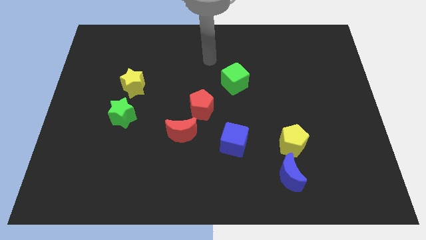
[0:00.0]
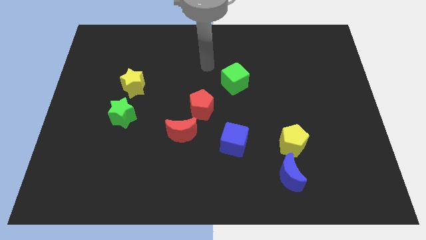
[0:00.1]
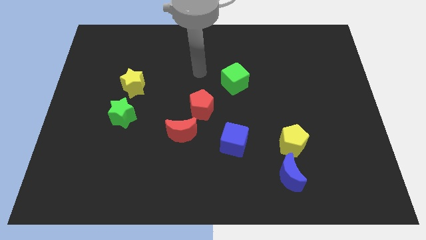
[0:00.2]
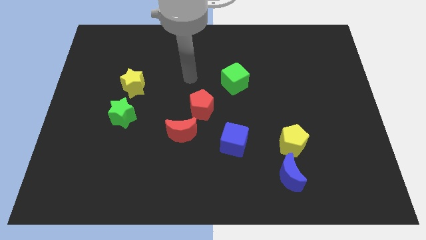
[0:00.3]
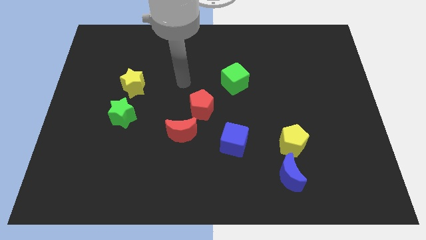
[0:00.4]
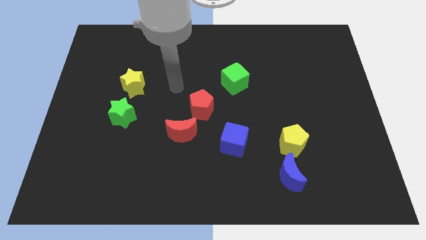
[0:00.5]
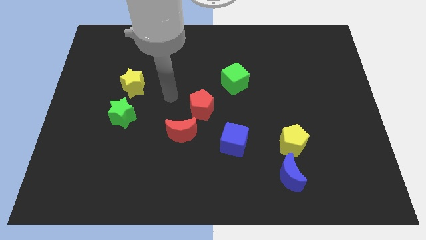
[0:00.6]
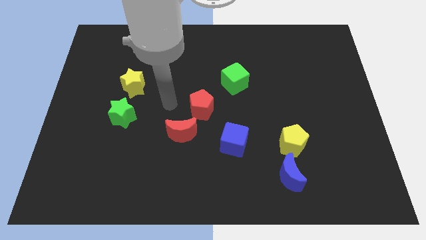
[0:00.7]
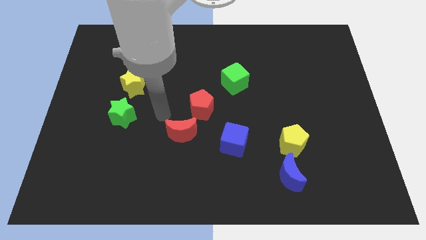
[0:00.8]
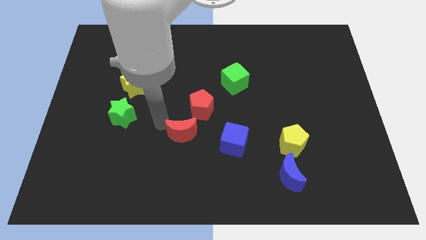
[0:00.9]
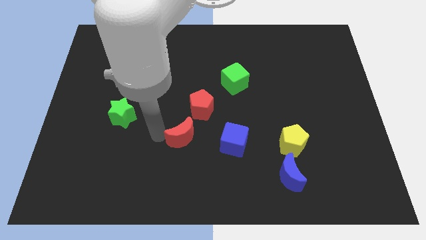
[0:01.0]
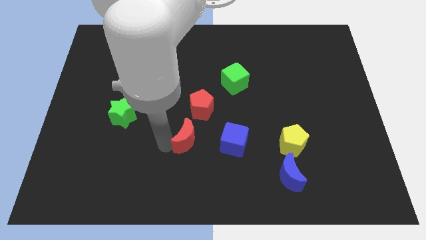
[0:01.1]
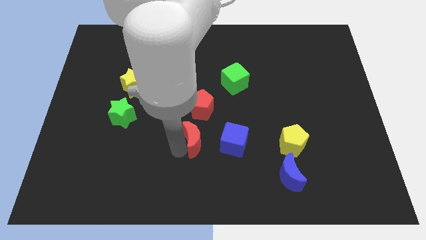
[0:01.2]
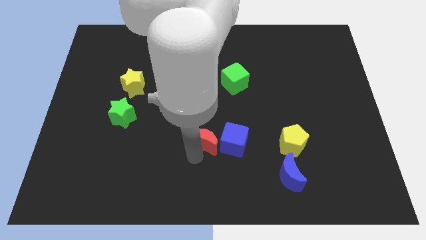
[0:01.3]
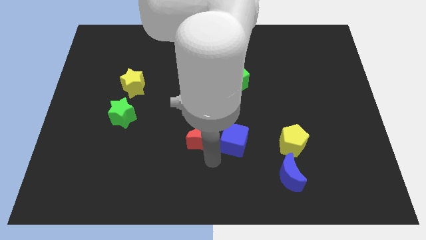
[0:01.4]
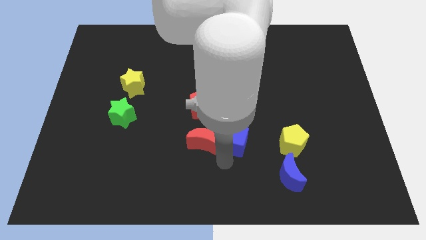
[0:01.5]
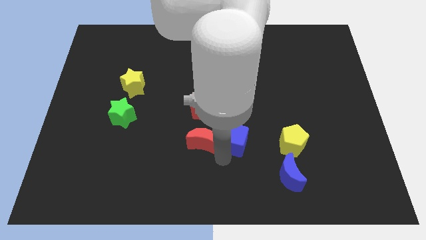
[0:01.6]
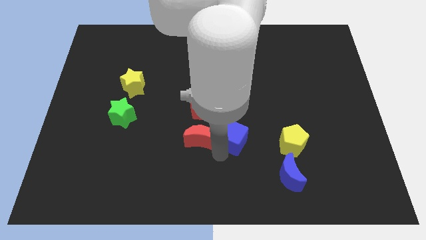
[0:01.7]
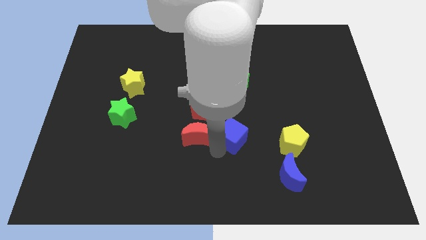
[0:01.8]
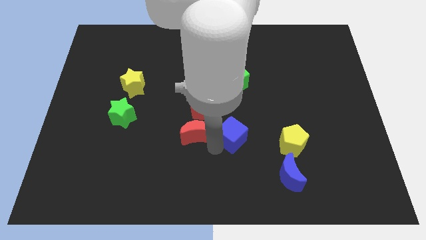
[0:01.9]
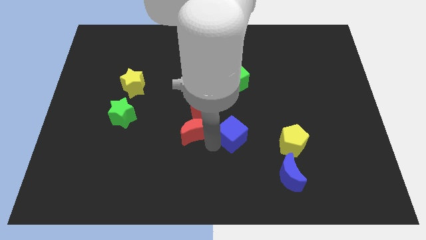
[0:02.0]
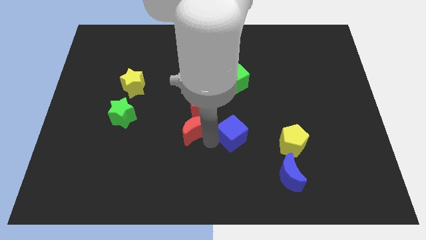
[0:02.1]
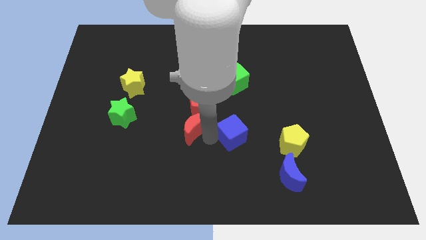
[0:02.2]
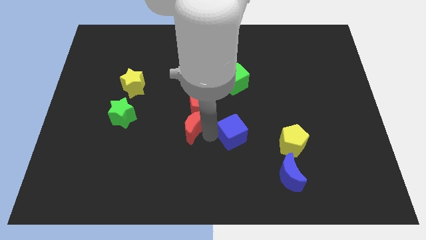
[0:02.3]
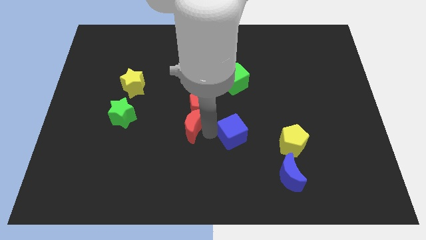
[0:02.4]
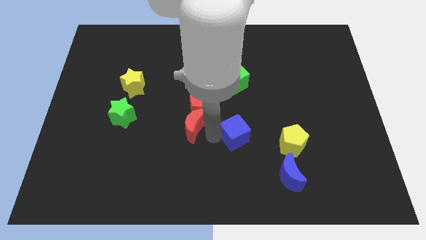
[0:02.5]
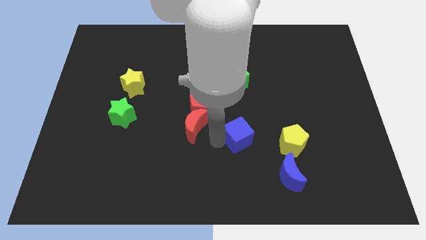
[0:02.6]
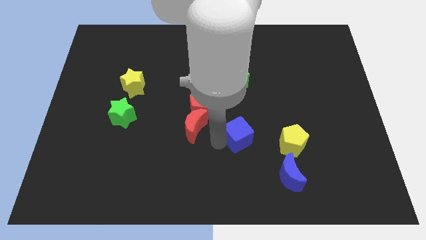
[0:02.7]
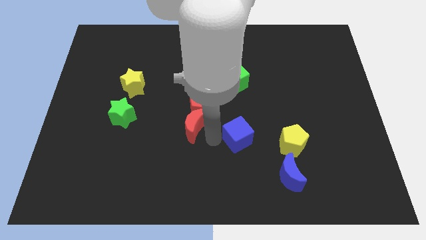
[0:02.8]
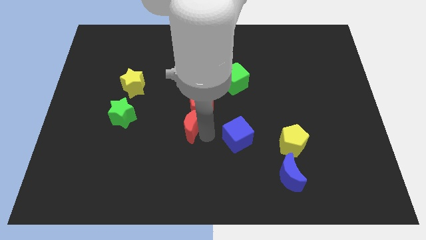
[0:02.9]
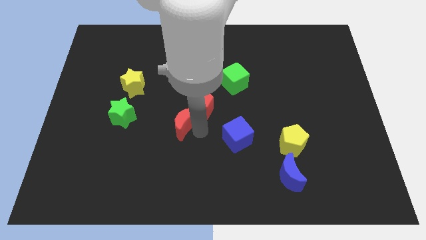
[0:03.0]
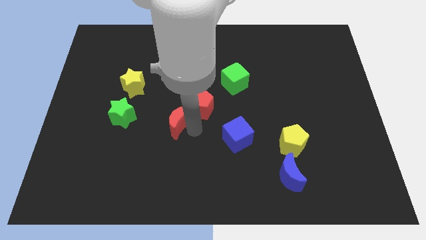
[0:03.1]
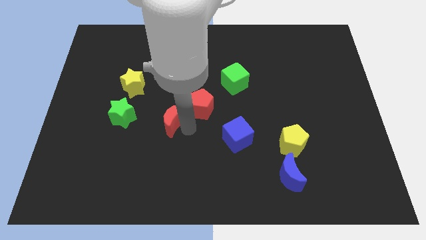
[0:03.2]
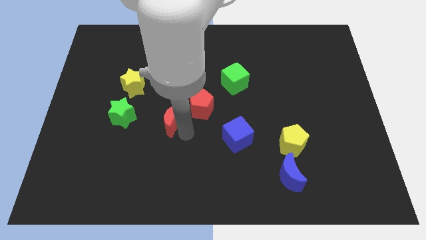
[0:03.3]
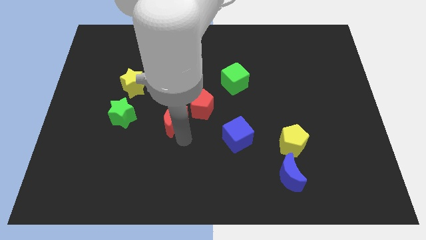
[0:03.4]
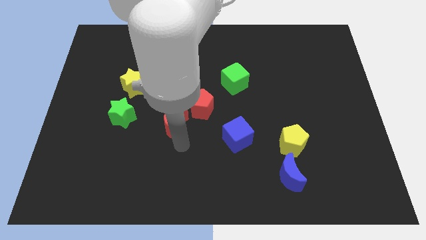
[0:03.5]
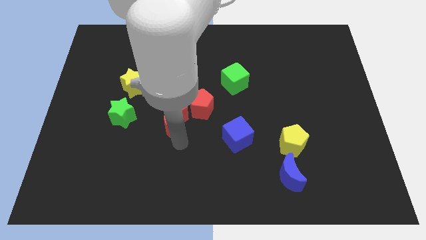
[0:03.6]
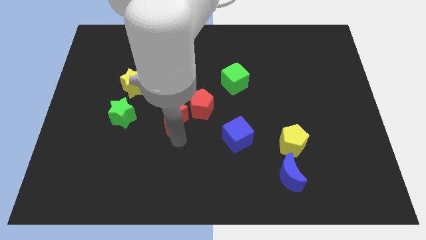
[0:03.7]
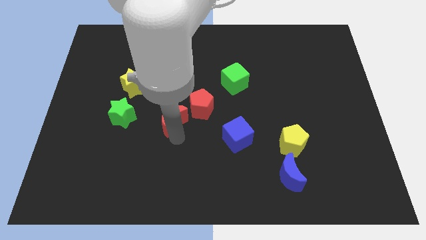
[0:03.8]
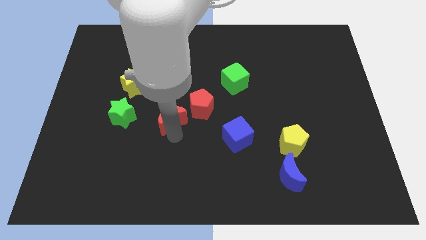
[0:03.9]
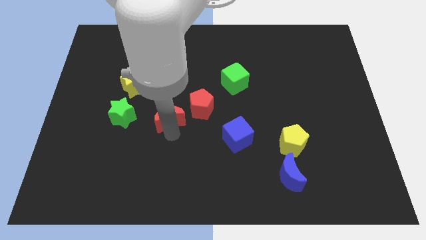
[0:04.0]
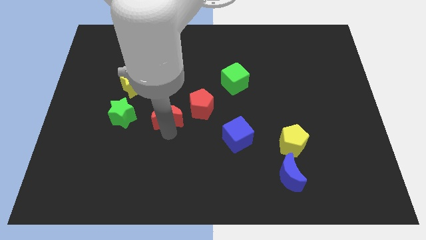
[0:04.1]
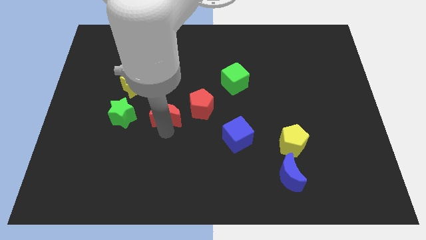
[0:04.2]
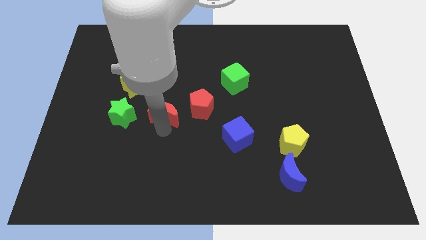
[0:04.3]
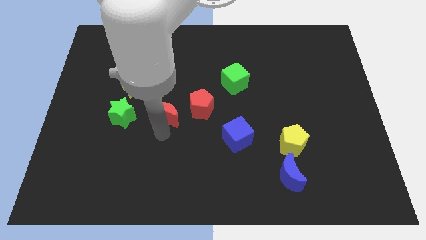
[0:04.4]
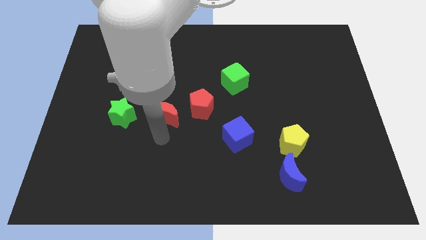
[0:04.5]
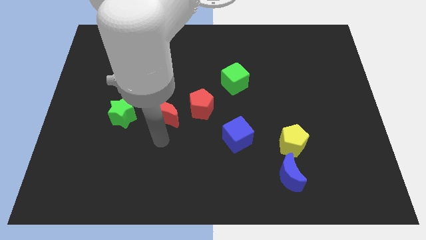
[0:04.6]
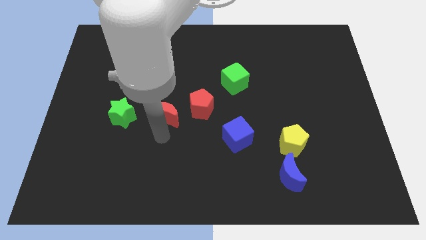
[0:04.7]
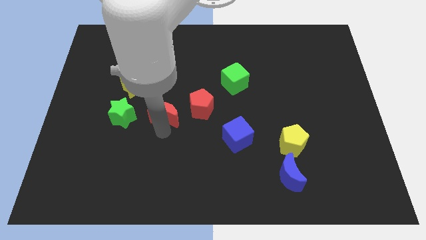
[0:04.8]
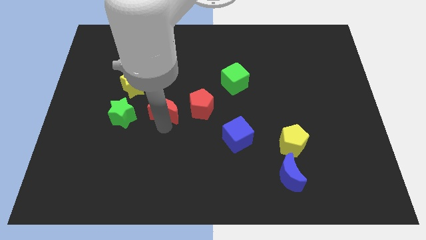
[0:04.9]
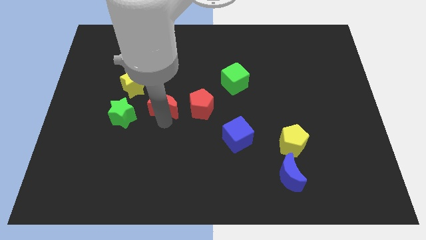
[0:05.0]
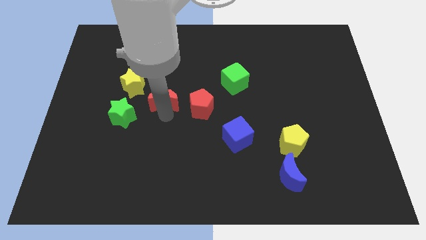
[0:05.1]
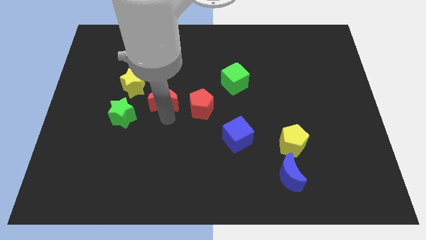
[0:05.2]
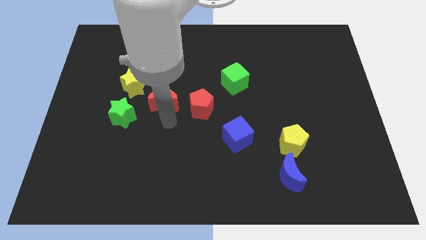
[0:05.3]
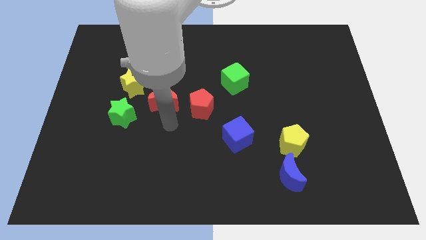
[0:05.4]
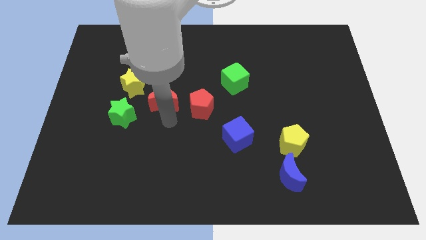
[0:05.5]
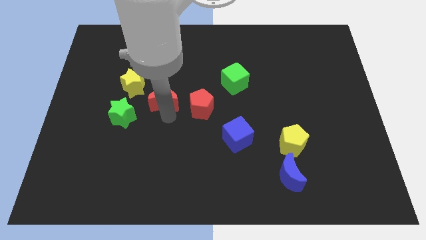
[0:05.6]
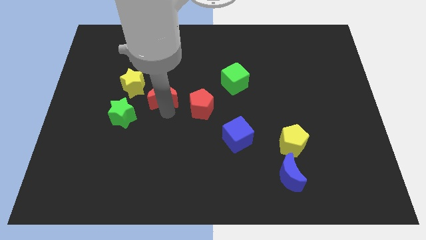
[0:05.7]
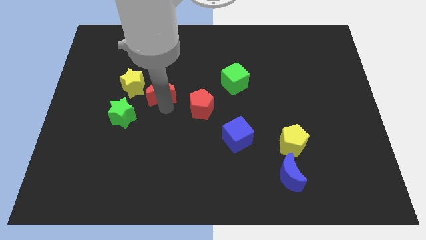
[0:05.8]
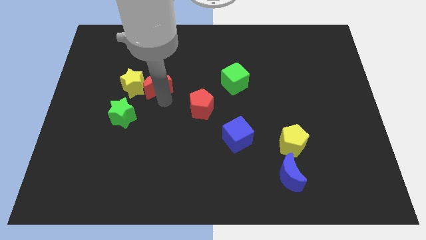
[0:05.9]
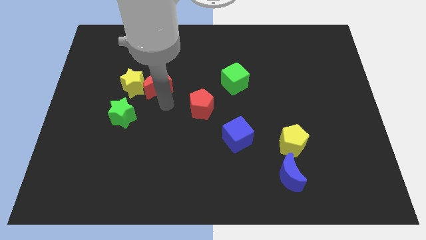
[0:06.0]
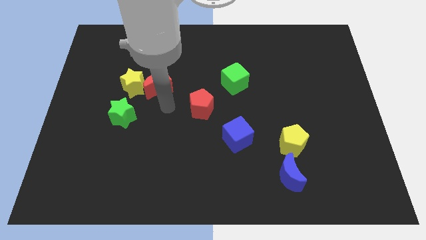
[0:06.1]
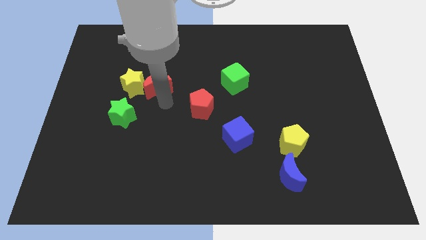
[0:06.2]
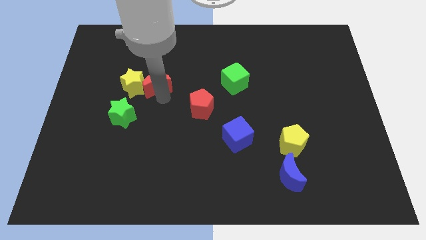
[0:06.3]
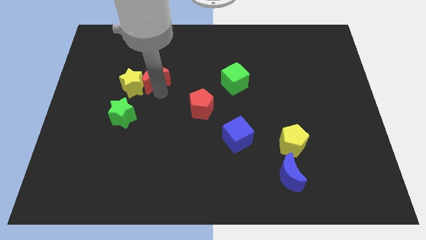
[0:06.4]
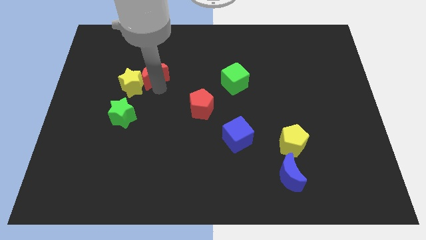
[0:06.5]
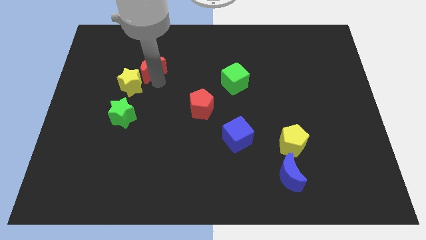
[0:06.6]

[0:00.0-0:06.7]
slide the red moon to the top side of the yellow star
